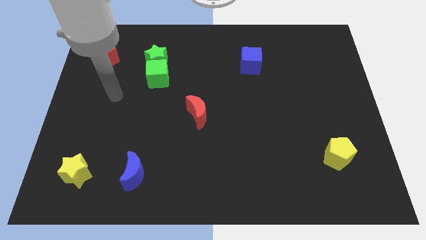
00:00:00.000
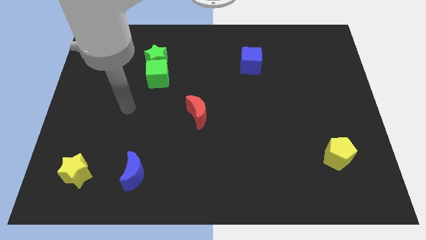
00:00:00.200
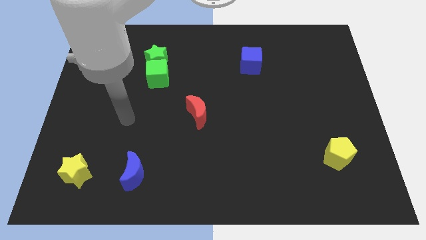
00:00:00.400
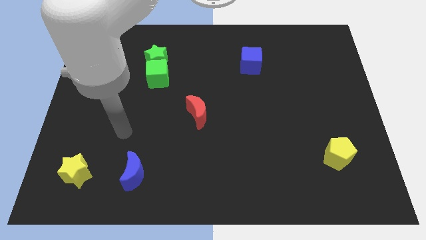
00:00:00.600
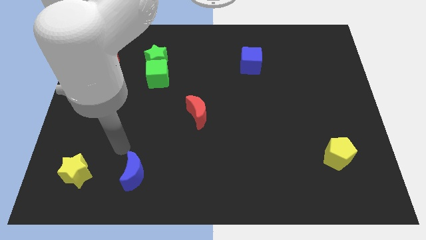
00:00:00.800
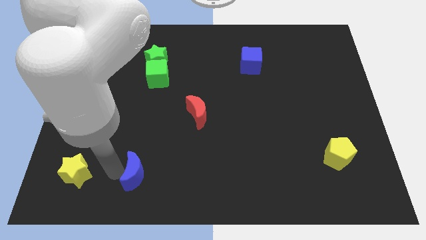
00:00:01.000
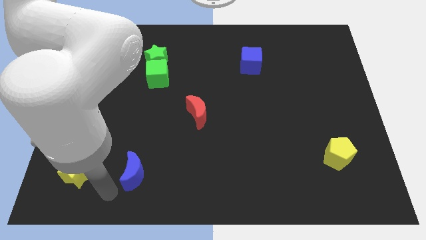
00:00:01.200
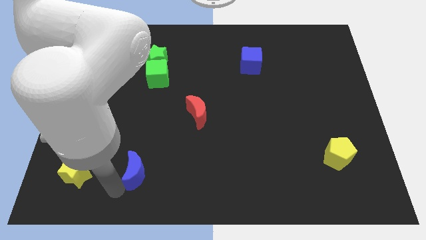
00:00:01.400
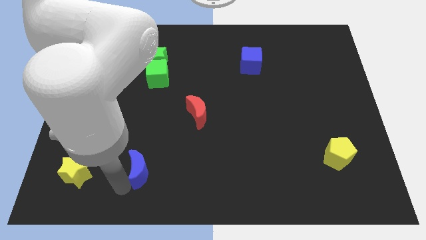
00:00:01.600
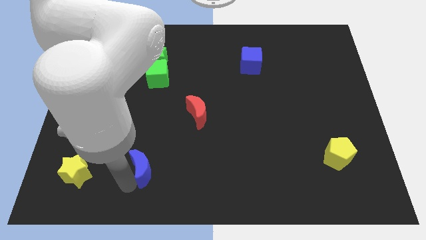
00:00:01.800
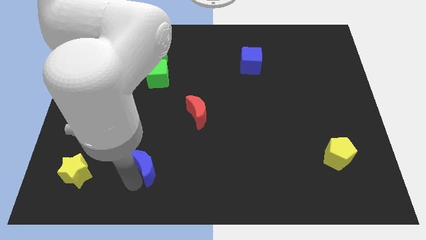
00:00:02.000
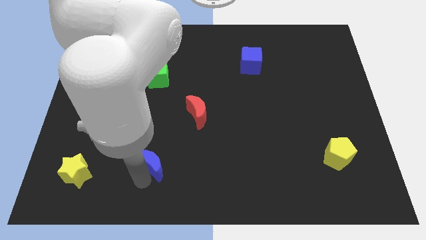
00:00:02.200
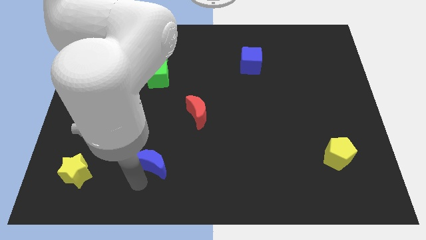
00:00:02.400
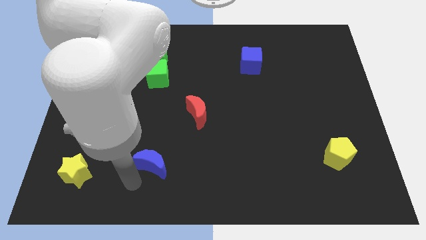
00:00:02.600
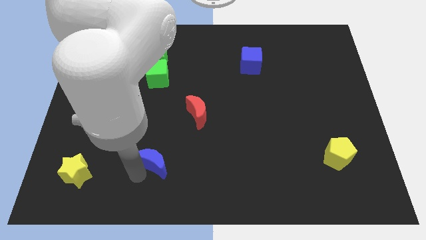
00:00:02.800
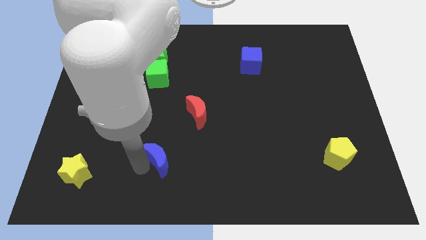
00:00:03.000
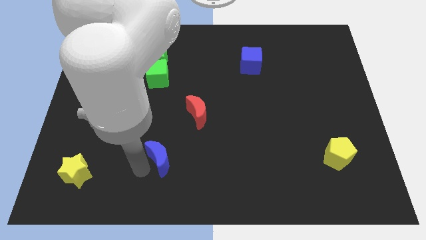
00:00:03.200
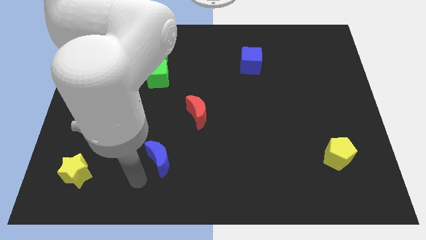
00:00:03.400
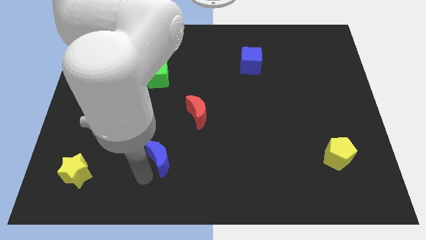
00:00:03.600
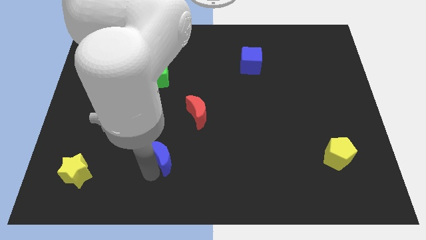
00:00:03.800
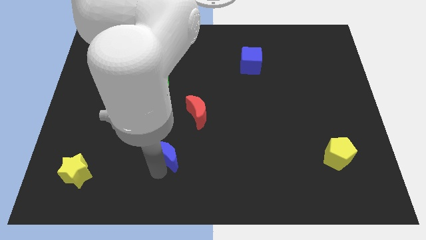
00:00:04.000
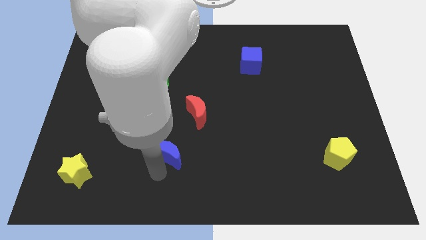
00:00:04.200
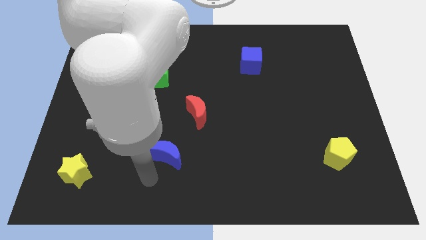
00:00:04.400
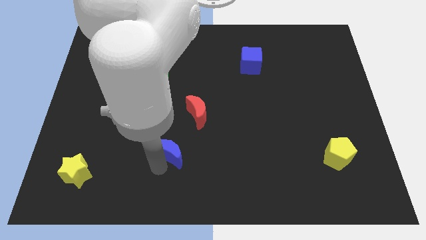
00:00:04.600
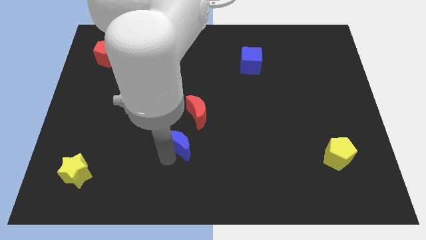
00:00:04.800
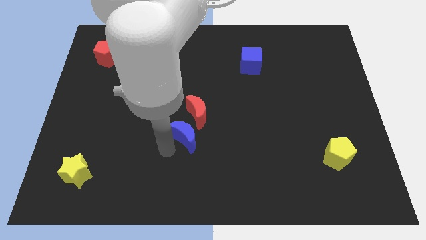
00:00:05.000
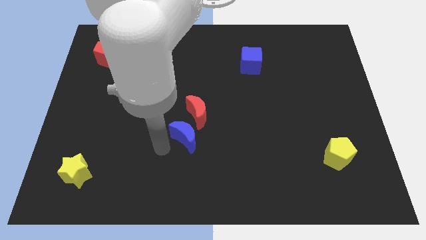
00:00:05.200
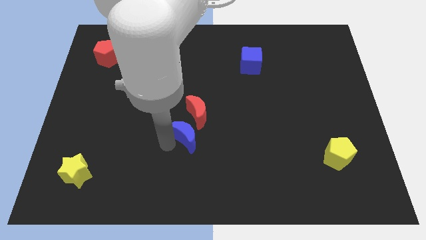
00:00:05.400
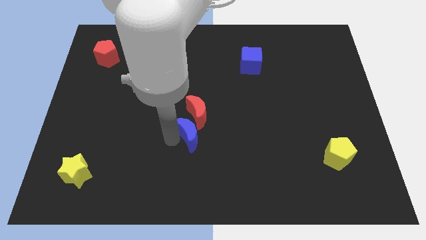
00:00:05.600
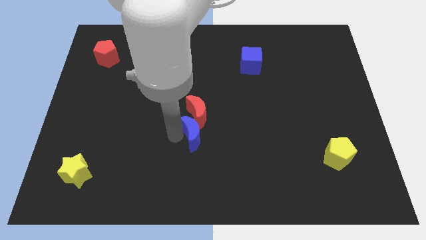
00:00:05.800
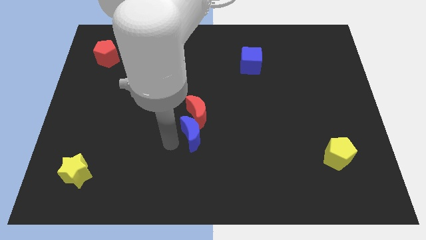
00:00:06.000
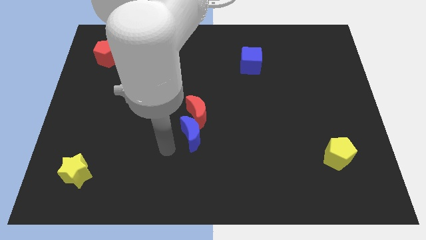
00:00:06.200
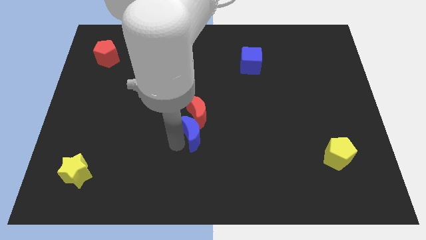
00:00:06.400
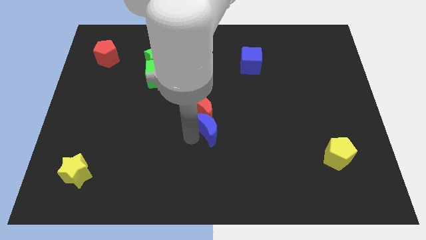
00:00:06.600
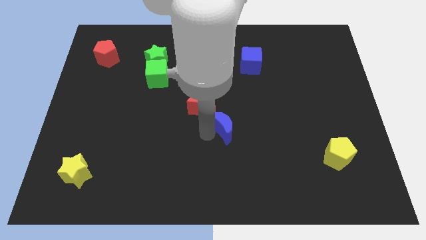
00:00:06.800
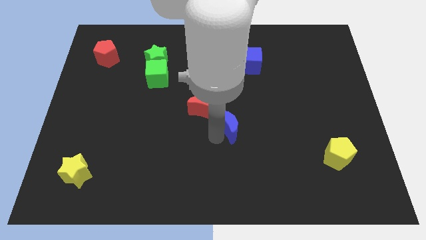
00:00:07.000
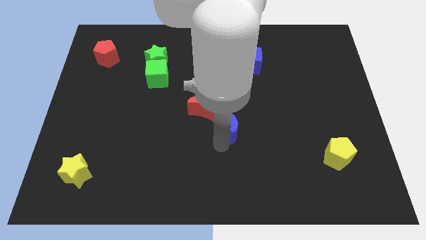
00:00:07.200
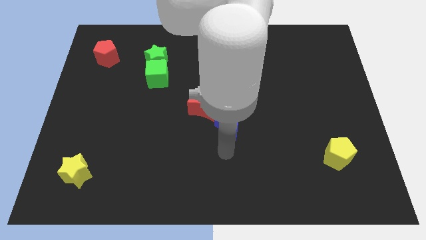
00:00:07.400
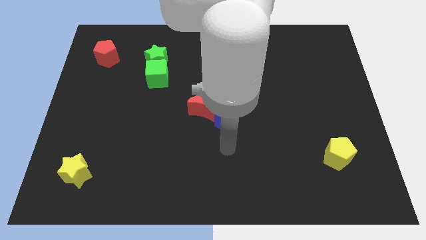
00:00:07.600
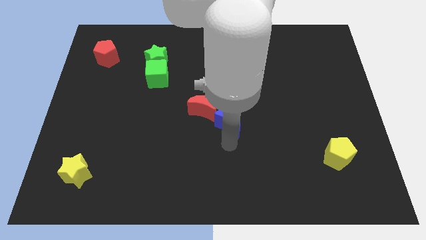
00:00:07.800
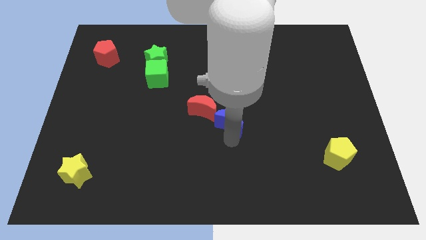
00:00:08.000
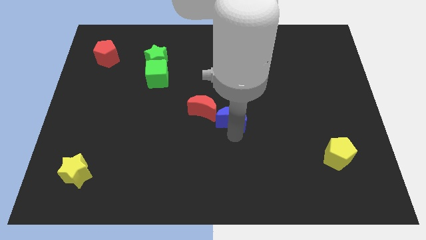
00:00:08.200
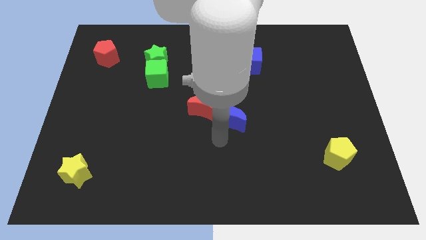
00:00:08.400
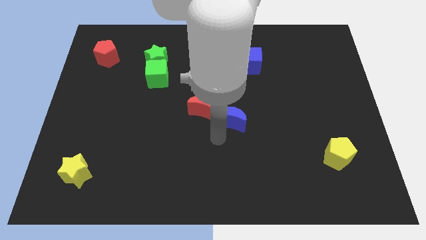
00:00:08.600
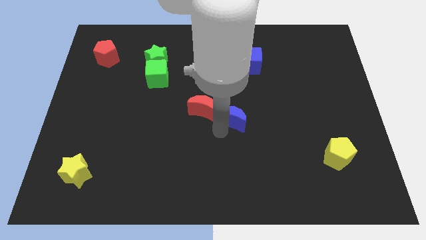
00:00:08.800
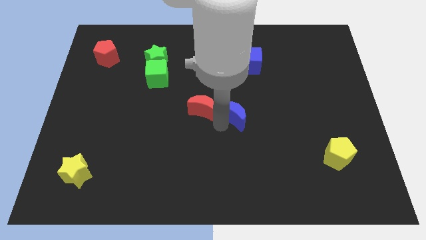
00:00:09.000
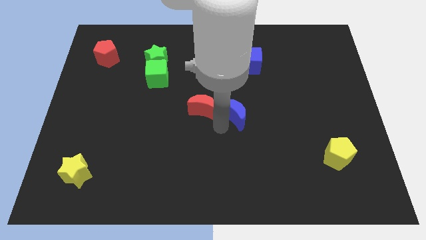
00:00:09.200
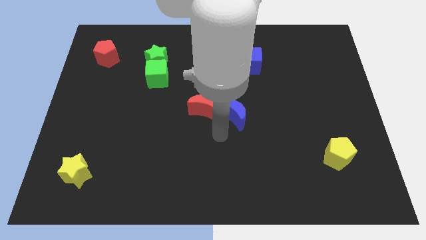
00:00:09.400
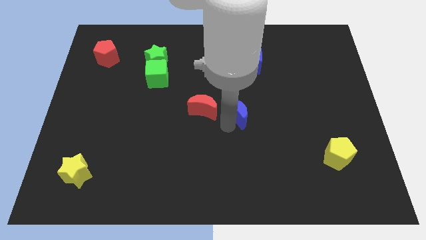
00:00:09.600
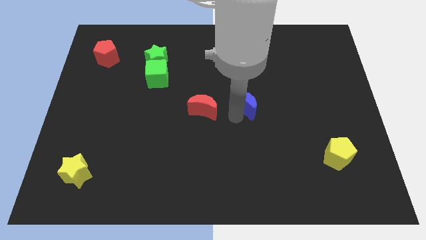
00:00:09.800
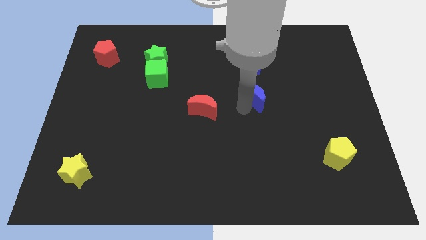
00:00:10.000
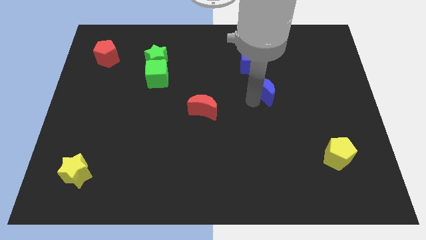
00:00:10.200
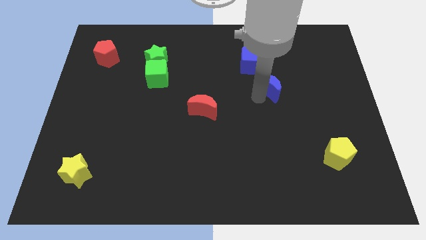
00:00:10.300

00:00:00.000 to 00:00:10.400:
put the blue moon to the bottom right of the blue cube

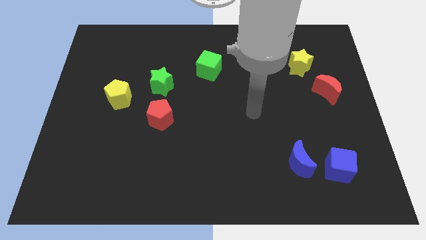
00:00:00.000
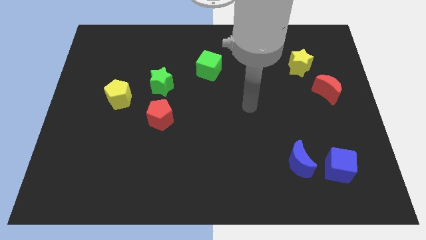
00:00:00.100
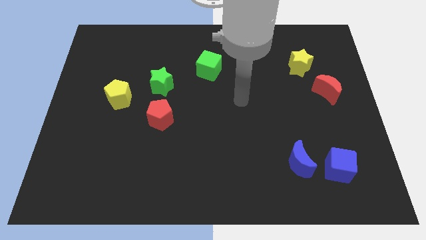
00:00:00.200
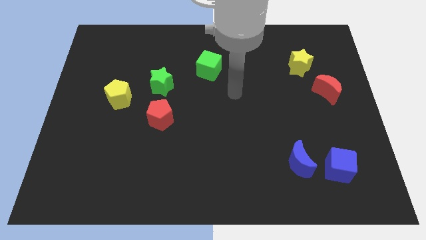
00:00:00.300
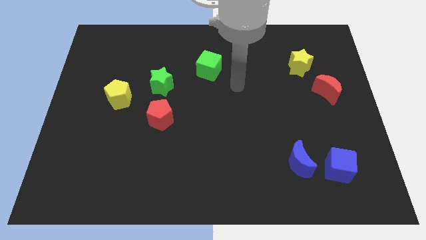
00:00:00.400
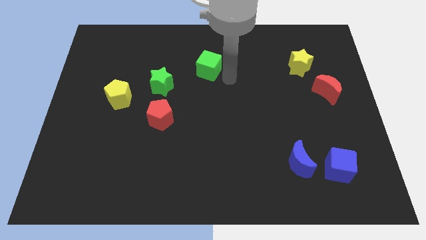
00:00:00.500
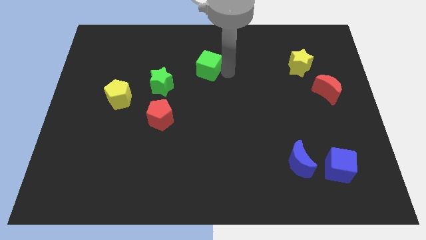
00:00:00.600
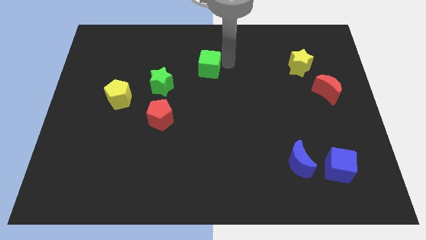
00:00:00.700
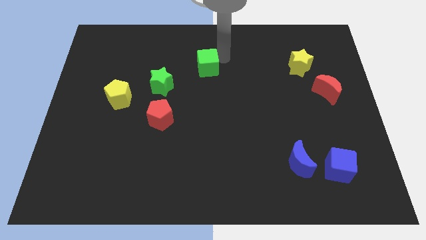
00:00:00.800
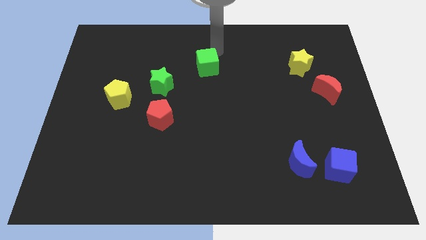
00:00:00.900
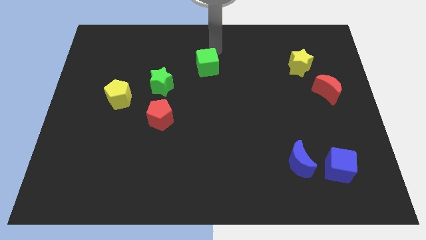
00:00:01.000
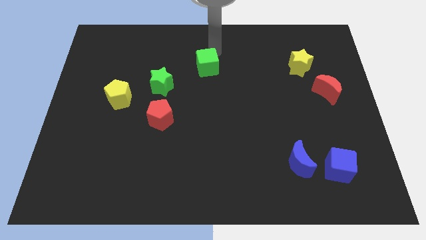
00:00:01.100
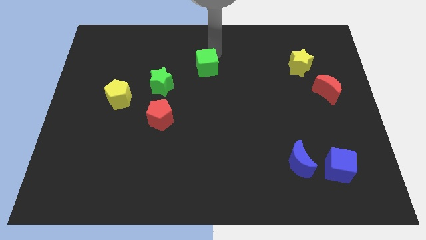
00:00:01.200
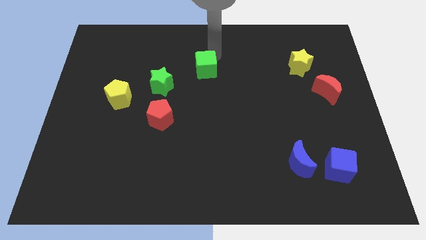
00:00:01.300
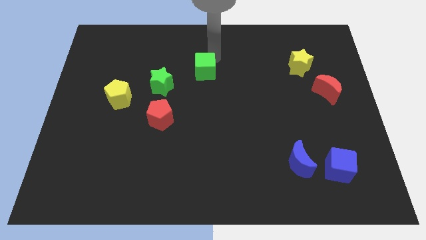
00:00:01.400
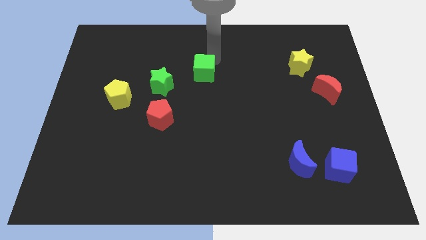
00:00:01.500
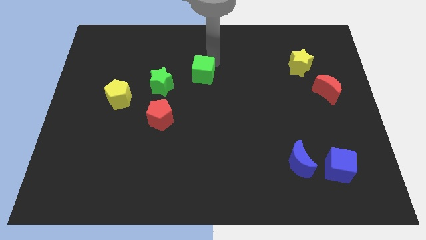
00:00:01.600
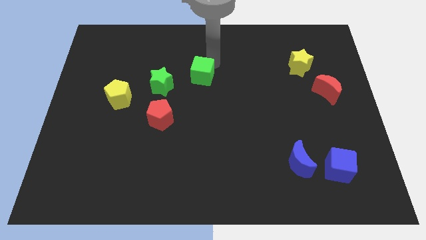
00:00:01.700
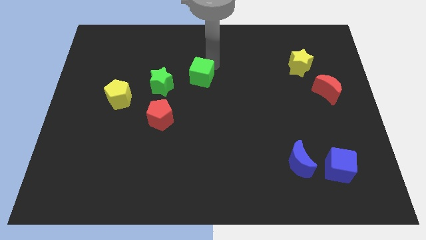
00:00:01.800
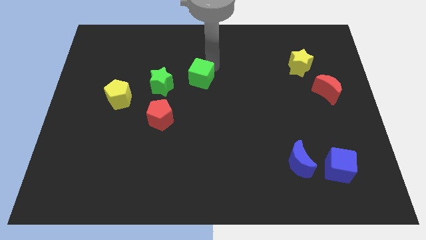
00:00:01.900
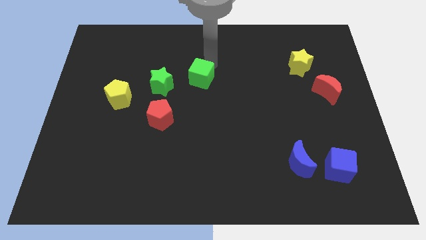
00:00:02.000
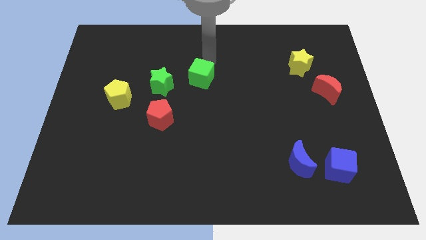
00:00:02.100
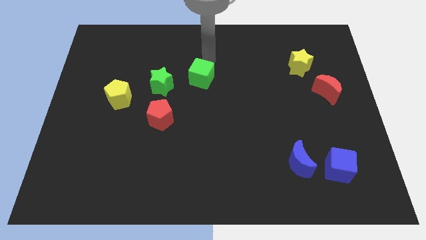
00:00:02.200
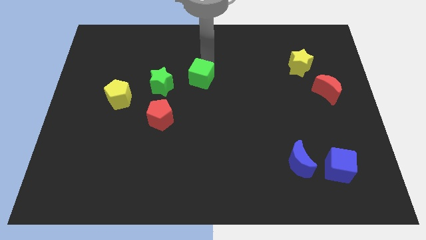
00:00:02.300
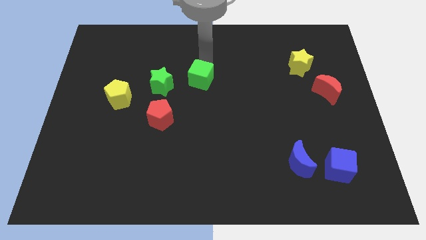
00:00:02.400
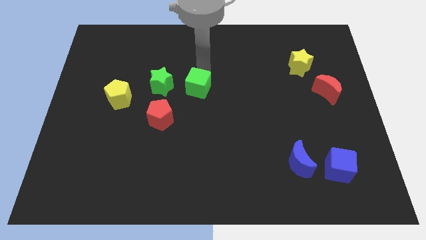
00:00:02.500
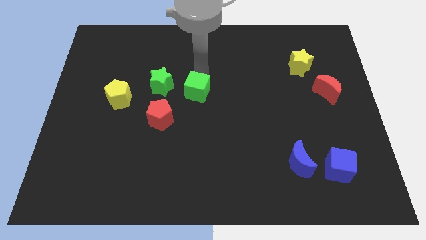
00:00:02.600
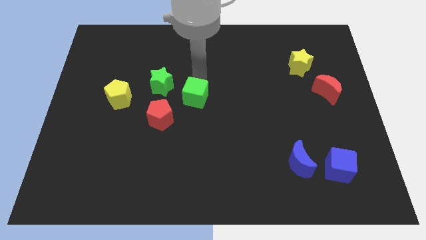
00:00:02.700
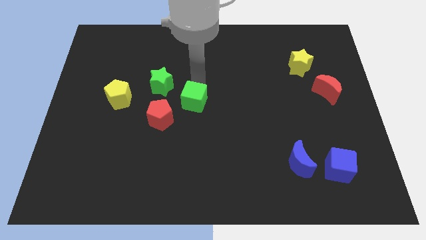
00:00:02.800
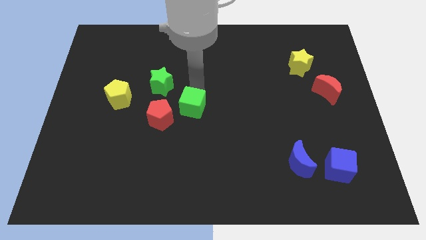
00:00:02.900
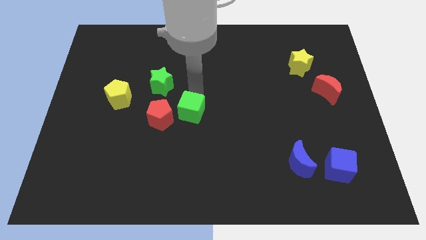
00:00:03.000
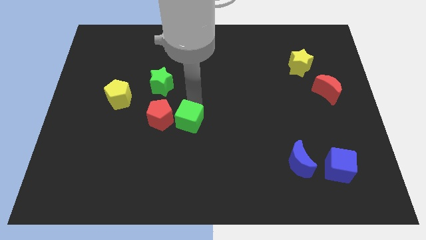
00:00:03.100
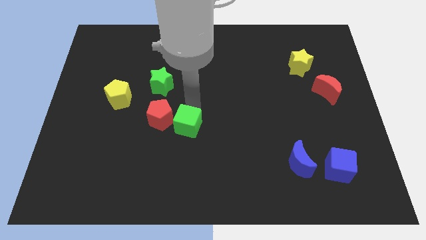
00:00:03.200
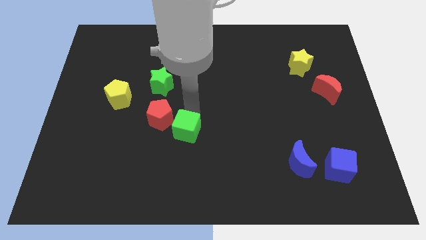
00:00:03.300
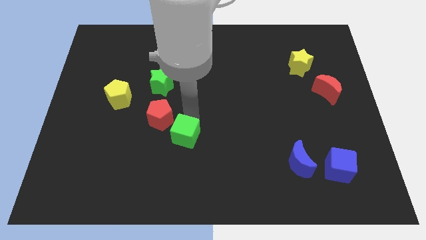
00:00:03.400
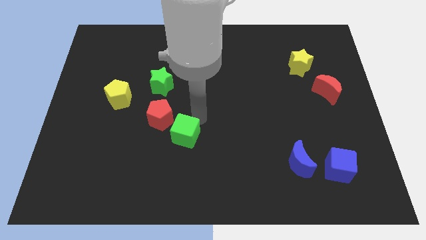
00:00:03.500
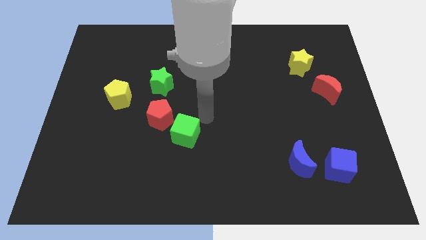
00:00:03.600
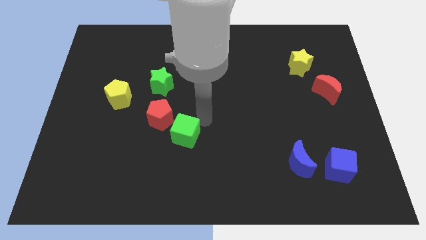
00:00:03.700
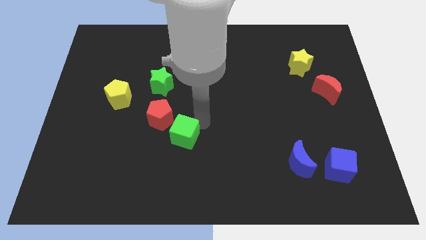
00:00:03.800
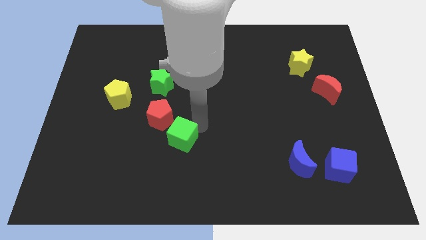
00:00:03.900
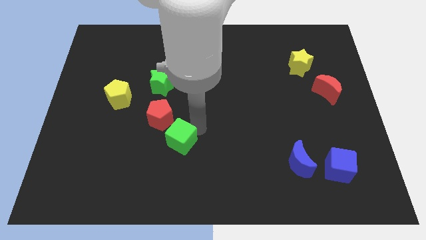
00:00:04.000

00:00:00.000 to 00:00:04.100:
slide the green cube to the bottom of the red pentagon
